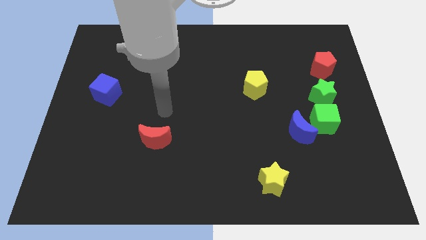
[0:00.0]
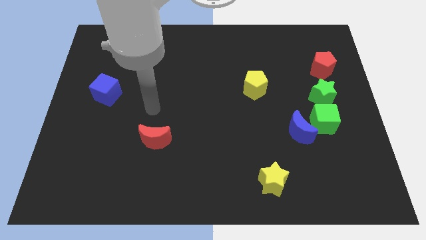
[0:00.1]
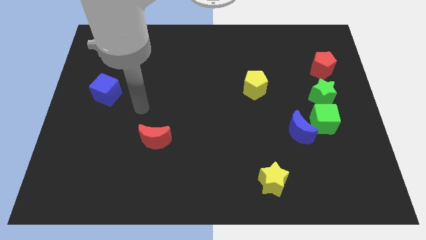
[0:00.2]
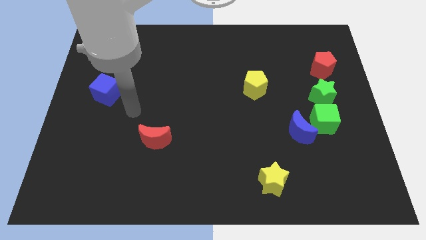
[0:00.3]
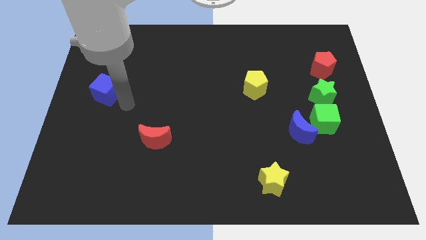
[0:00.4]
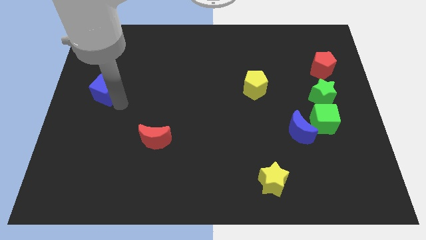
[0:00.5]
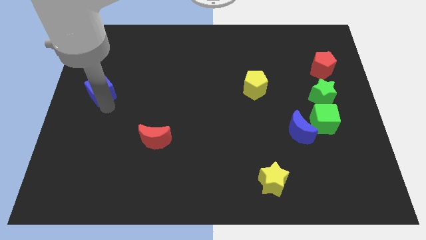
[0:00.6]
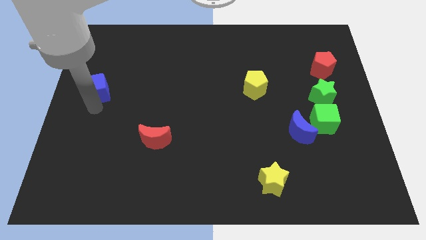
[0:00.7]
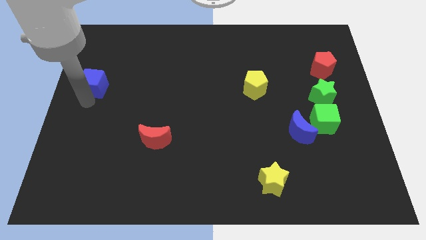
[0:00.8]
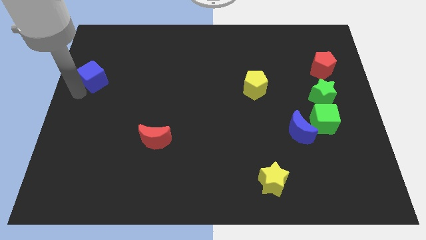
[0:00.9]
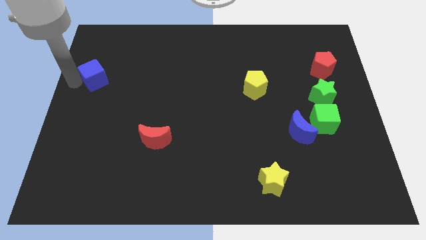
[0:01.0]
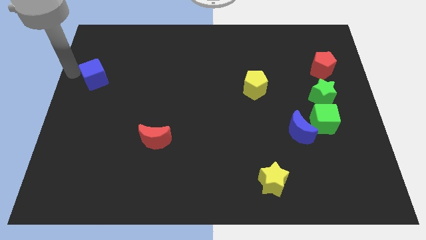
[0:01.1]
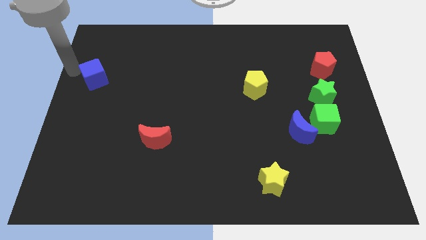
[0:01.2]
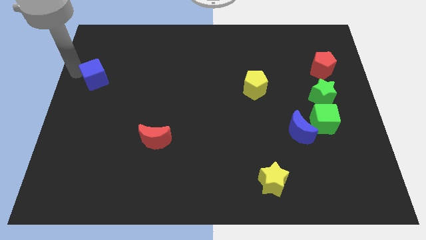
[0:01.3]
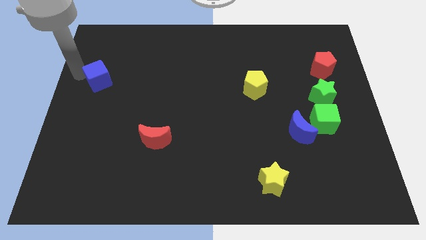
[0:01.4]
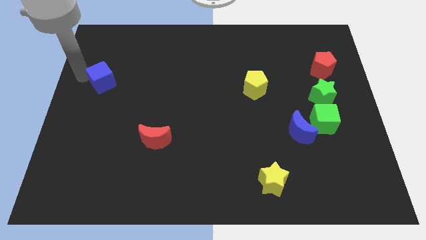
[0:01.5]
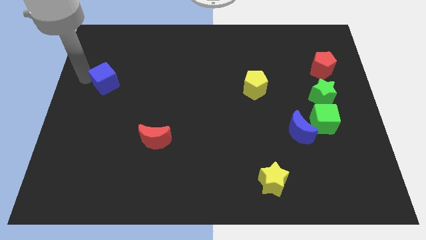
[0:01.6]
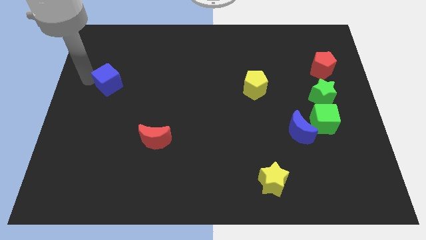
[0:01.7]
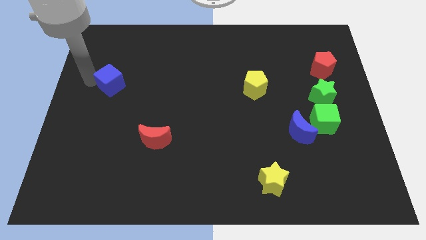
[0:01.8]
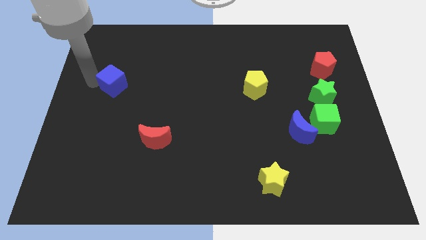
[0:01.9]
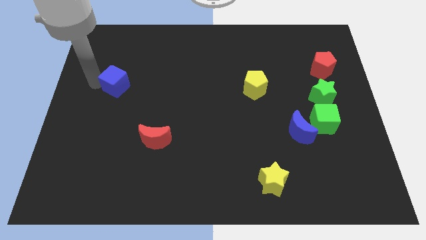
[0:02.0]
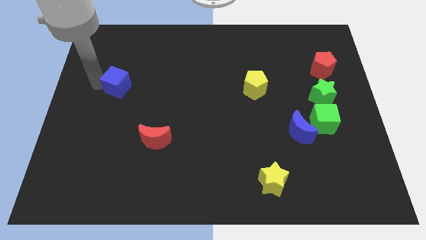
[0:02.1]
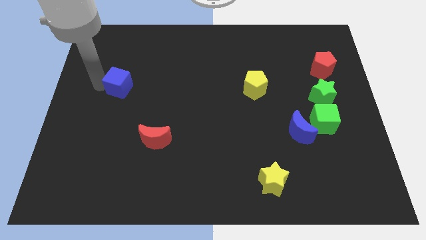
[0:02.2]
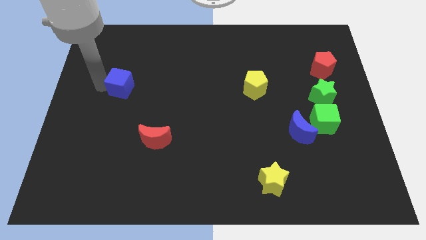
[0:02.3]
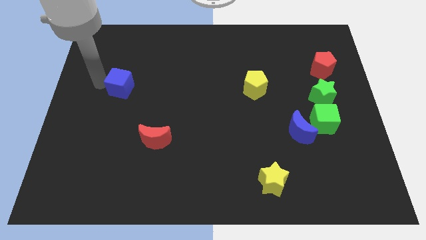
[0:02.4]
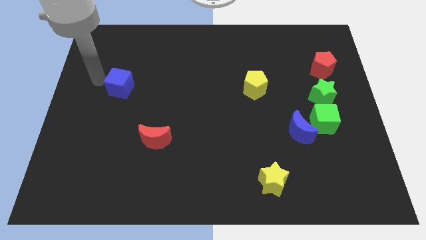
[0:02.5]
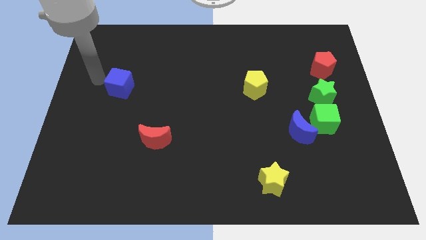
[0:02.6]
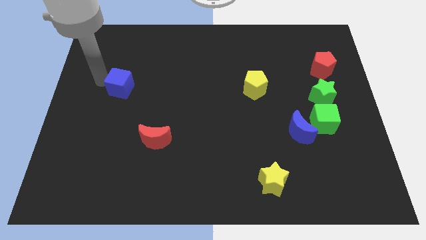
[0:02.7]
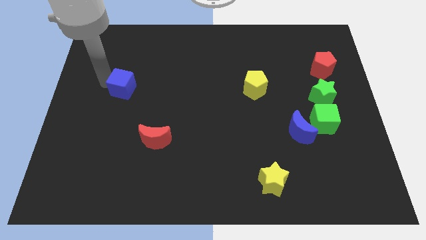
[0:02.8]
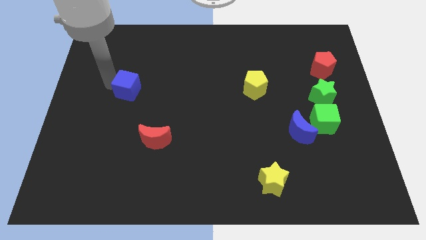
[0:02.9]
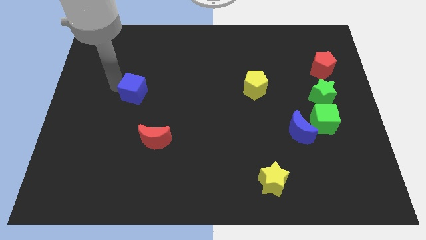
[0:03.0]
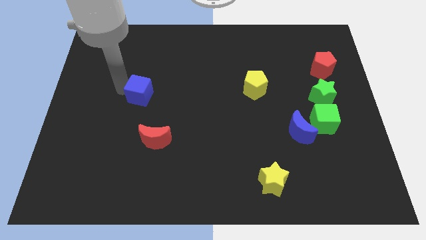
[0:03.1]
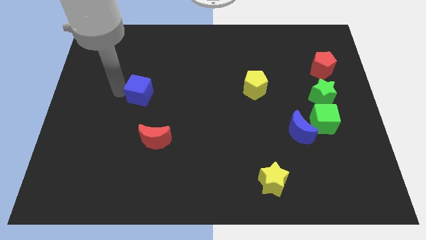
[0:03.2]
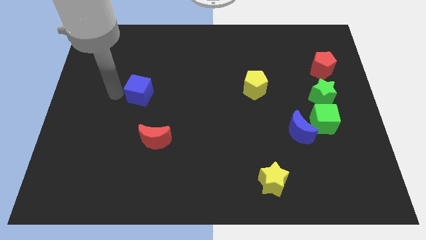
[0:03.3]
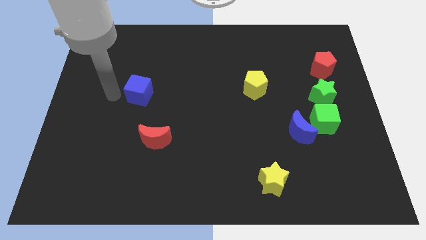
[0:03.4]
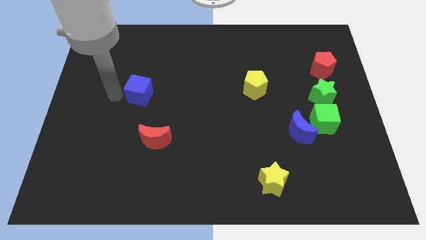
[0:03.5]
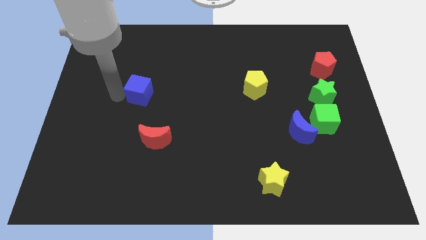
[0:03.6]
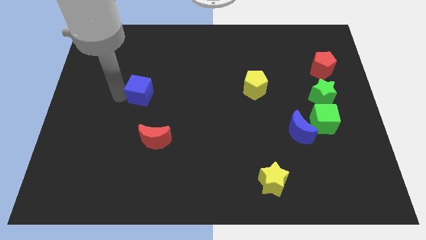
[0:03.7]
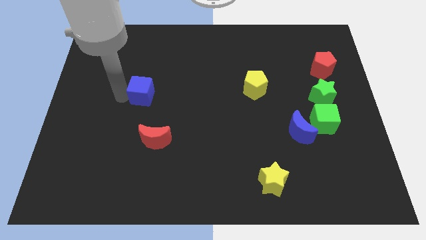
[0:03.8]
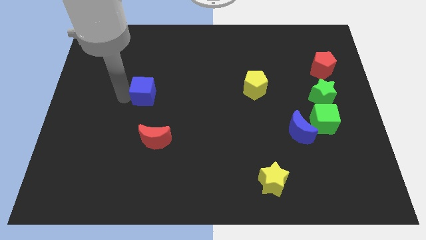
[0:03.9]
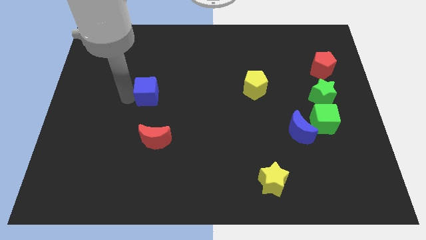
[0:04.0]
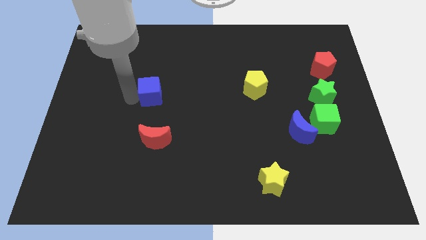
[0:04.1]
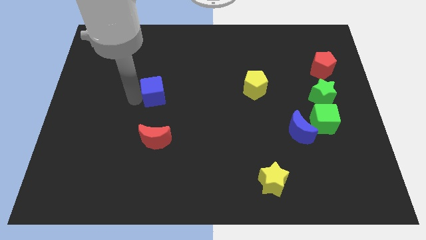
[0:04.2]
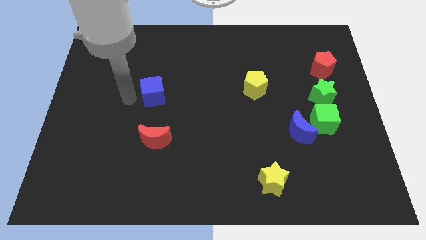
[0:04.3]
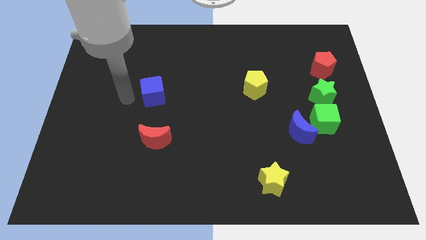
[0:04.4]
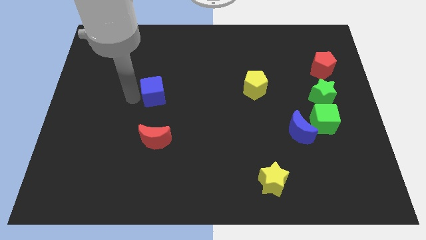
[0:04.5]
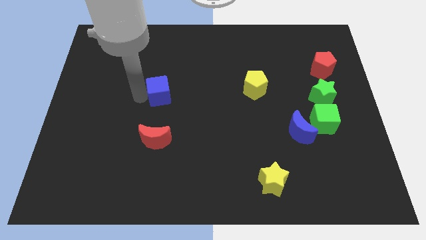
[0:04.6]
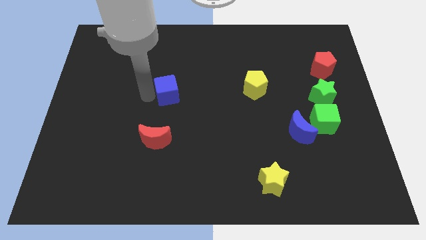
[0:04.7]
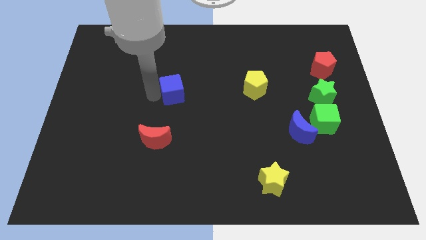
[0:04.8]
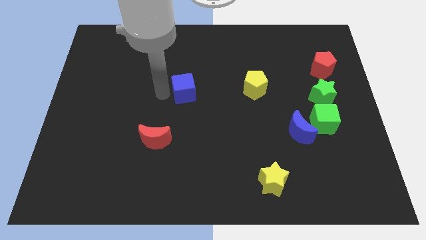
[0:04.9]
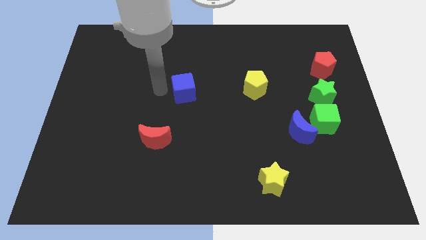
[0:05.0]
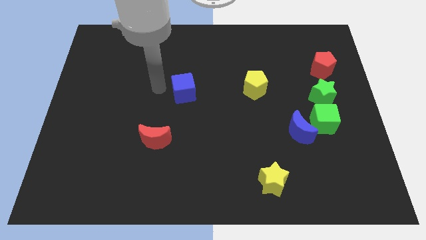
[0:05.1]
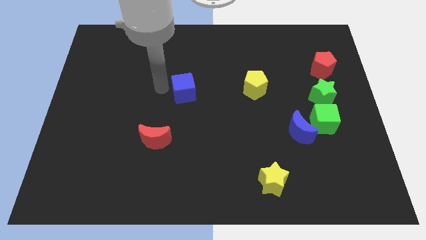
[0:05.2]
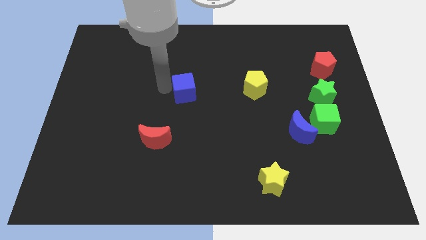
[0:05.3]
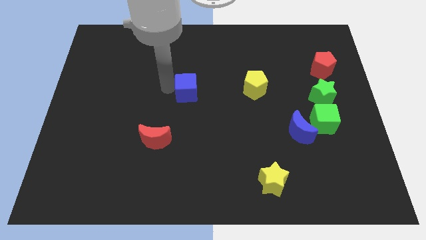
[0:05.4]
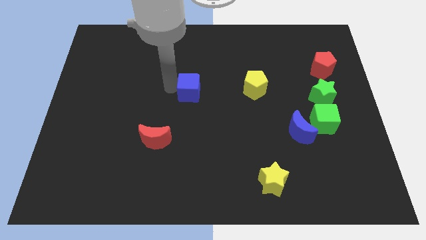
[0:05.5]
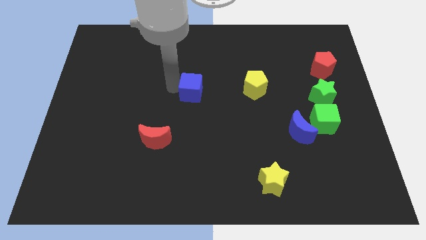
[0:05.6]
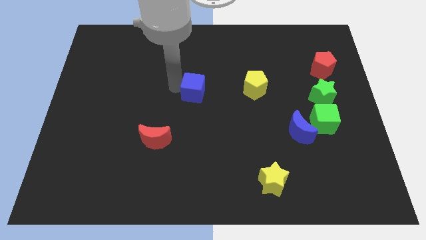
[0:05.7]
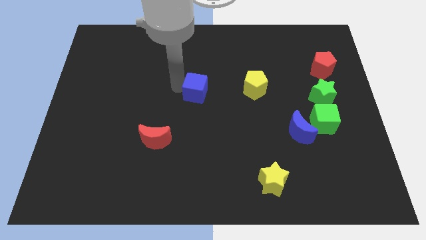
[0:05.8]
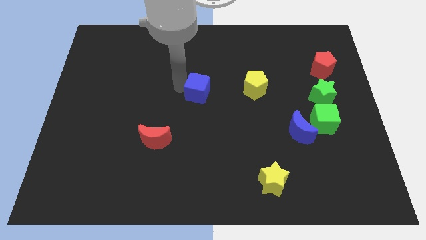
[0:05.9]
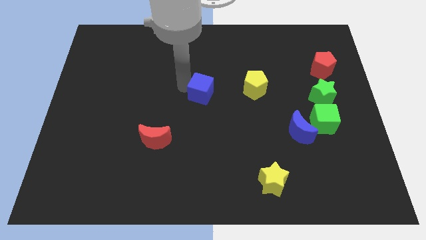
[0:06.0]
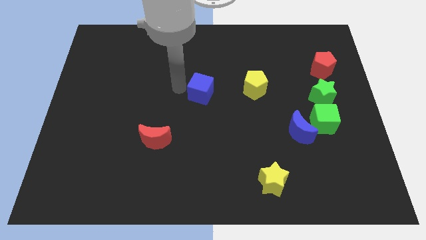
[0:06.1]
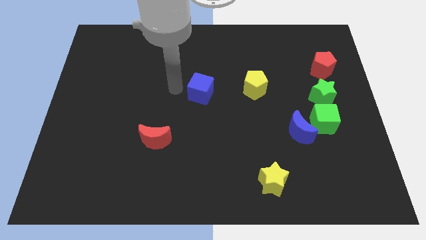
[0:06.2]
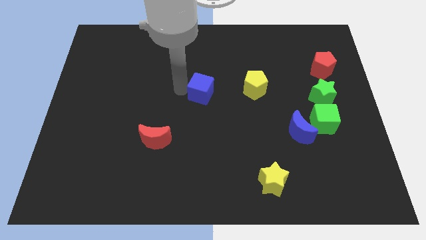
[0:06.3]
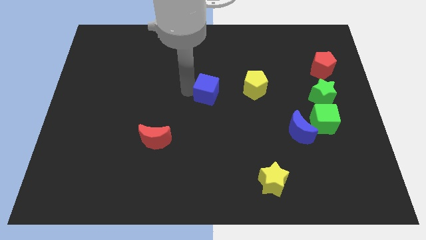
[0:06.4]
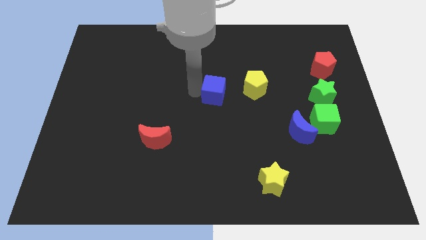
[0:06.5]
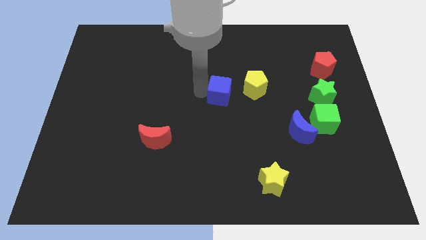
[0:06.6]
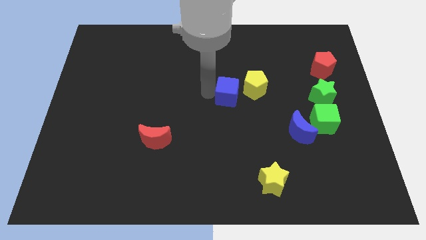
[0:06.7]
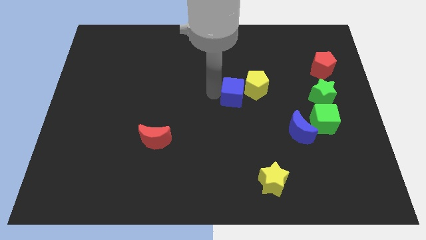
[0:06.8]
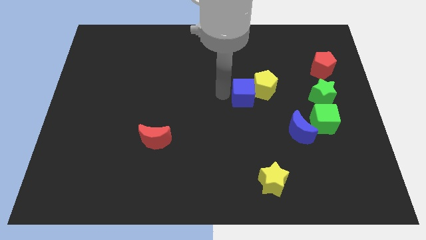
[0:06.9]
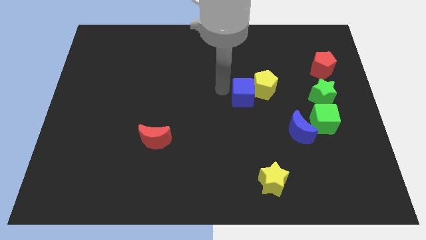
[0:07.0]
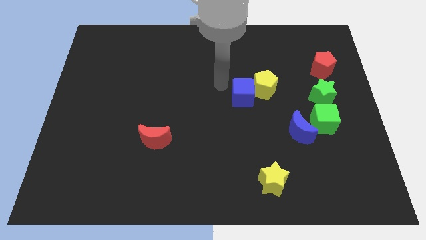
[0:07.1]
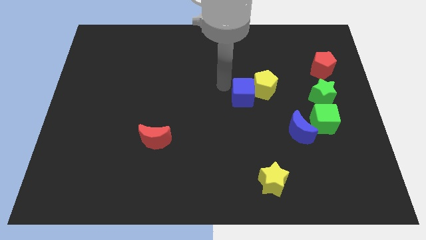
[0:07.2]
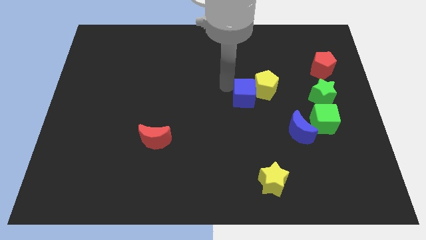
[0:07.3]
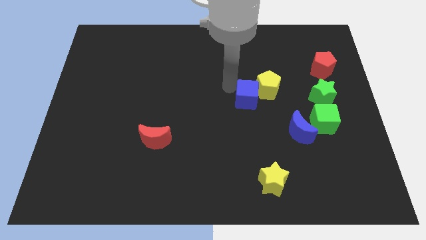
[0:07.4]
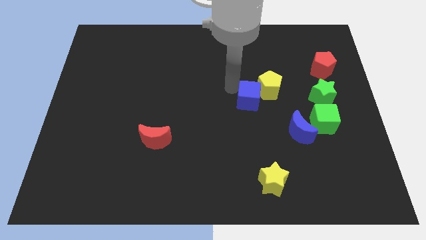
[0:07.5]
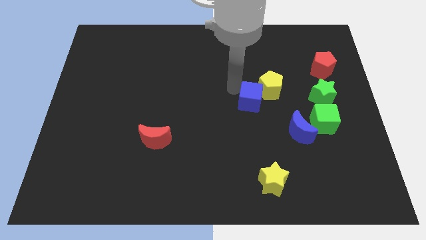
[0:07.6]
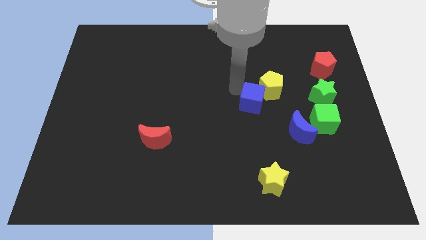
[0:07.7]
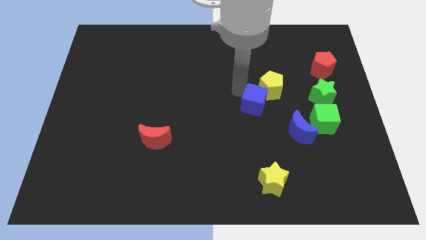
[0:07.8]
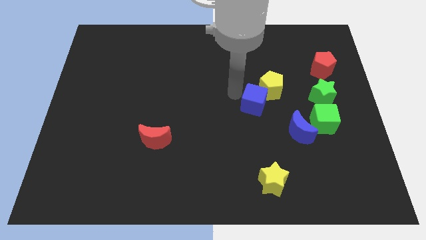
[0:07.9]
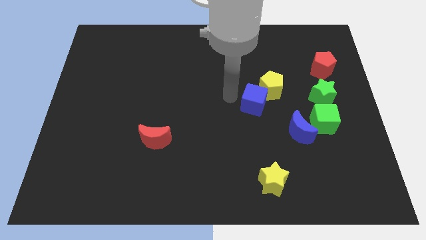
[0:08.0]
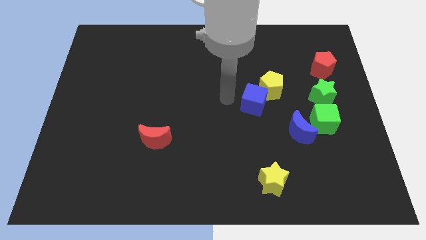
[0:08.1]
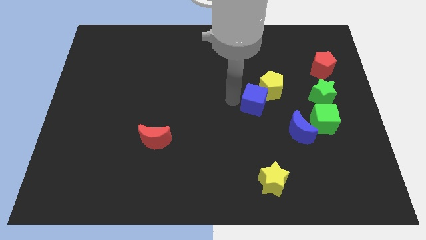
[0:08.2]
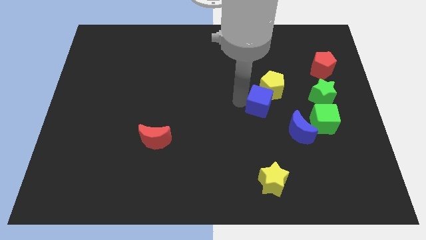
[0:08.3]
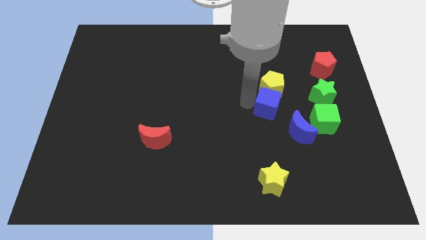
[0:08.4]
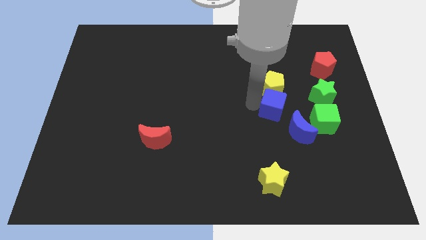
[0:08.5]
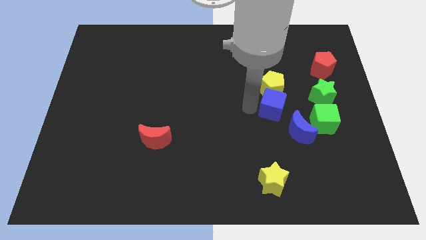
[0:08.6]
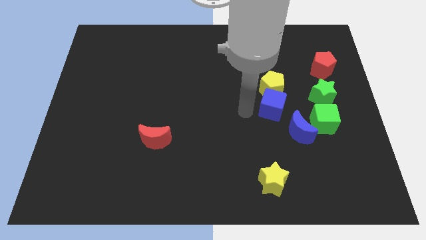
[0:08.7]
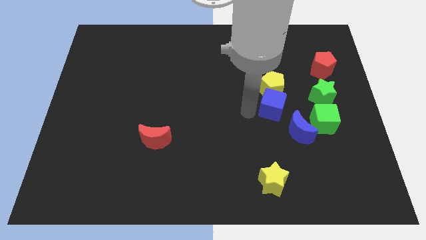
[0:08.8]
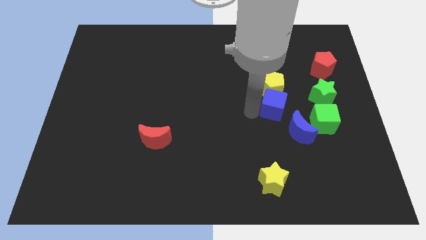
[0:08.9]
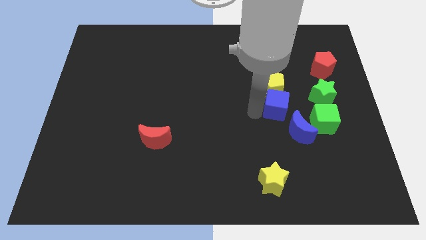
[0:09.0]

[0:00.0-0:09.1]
put the blue cube to the top left of the green cube
